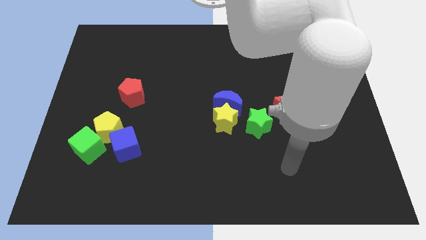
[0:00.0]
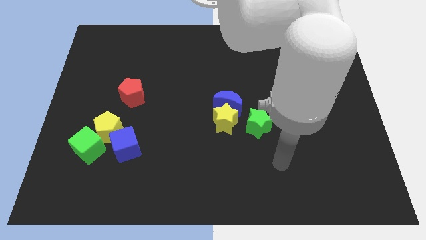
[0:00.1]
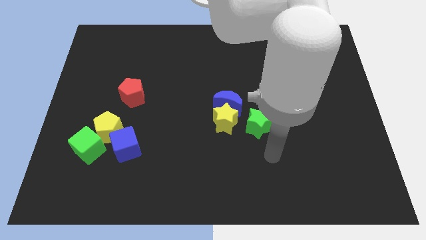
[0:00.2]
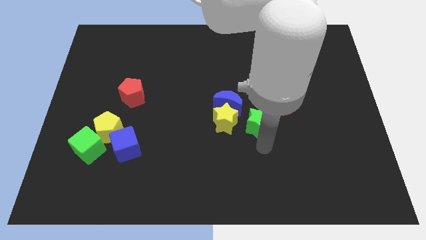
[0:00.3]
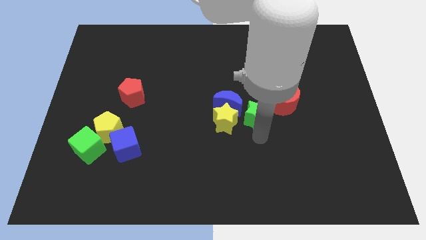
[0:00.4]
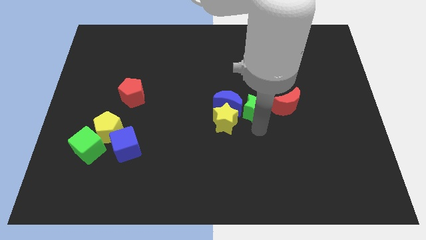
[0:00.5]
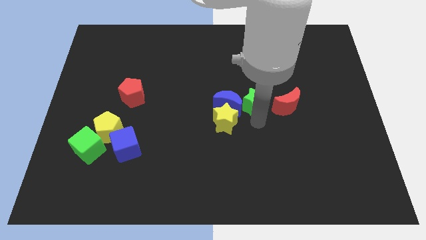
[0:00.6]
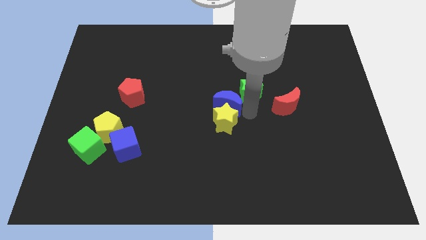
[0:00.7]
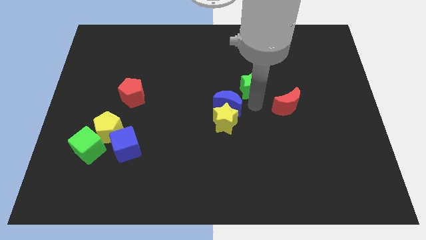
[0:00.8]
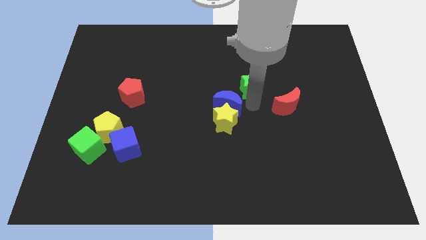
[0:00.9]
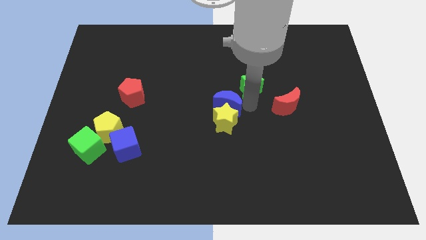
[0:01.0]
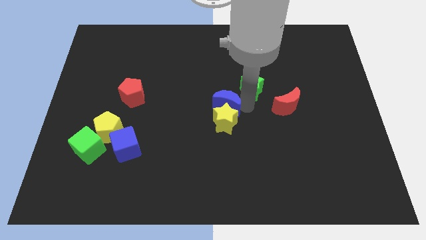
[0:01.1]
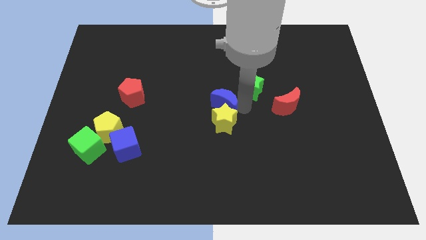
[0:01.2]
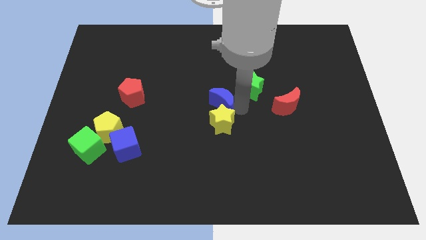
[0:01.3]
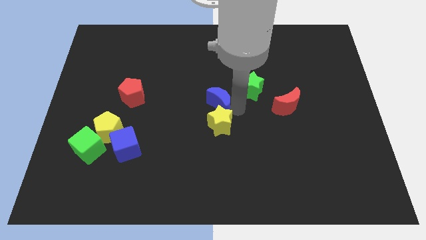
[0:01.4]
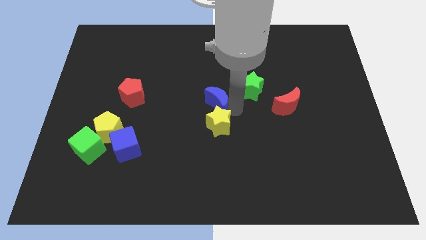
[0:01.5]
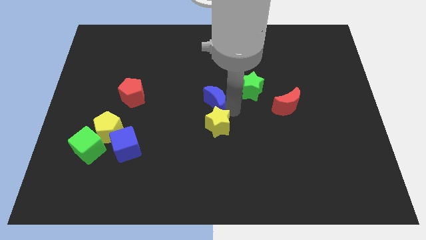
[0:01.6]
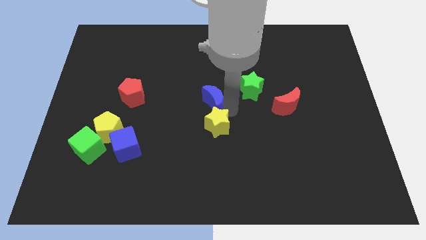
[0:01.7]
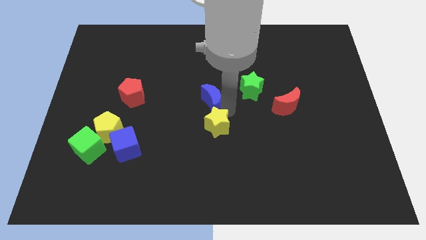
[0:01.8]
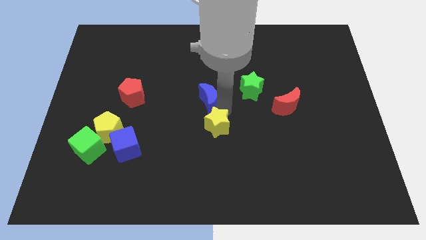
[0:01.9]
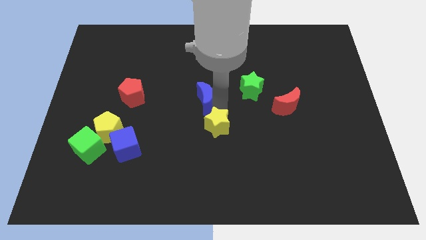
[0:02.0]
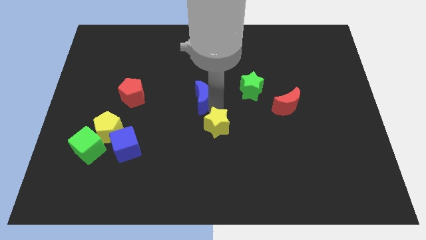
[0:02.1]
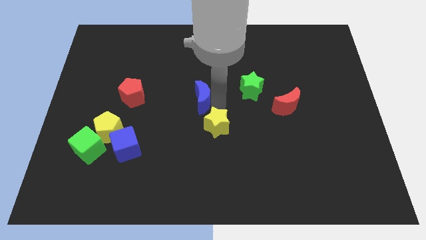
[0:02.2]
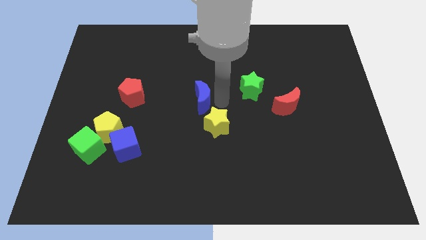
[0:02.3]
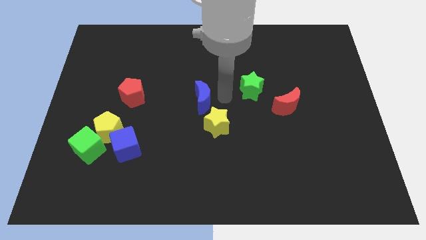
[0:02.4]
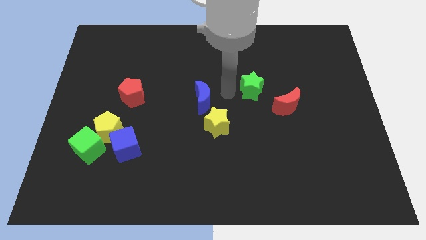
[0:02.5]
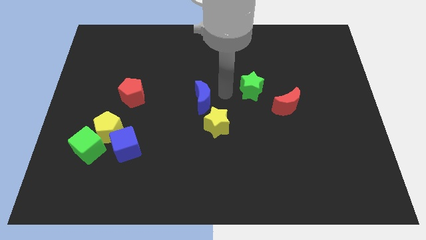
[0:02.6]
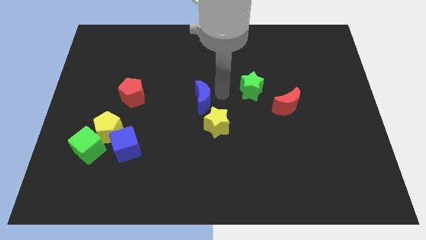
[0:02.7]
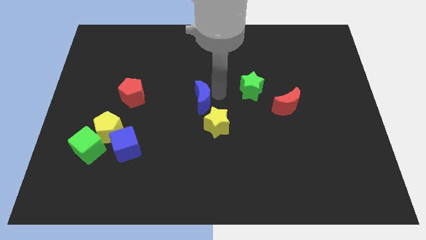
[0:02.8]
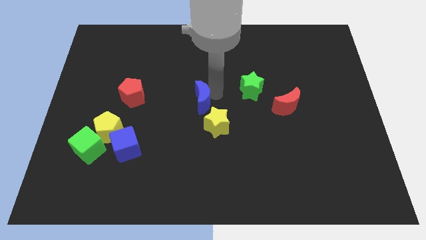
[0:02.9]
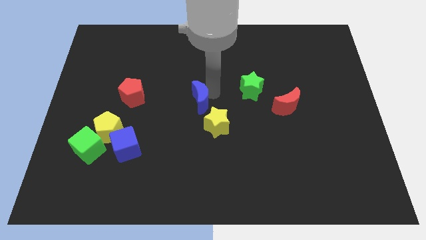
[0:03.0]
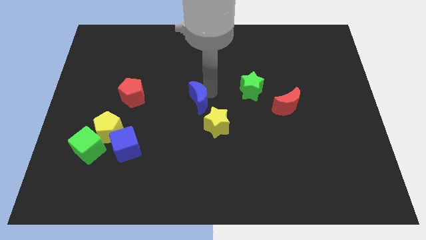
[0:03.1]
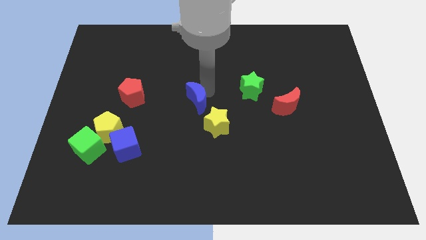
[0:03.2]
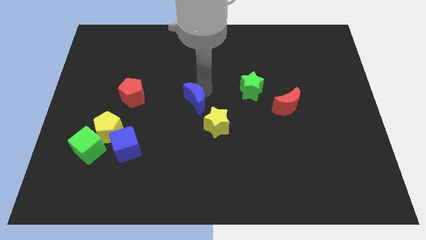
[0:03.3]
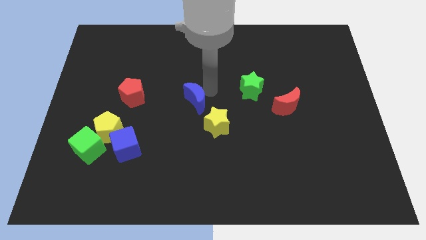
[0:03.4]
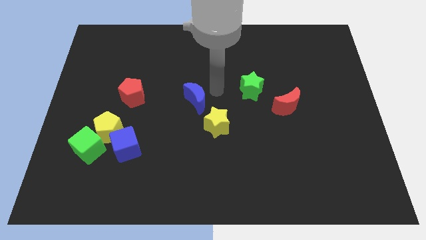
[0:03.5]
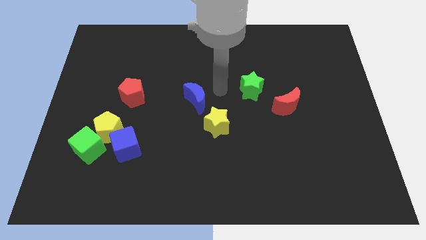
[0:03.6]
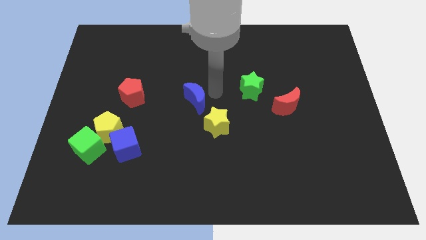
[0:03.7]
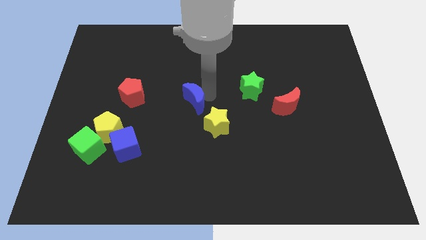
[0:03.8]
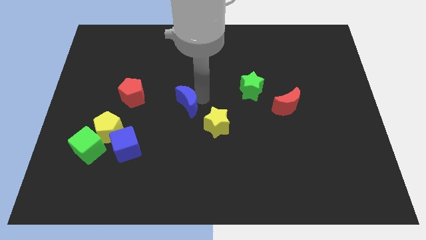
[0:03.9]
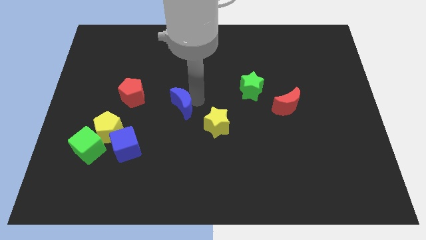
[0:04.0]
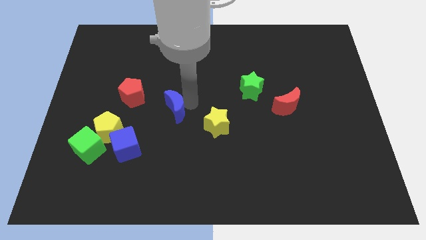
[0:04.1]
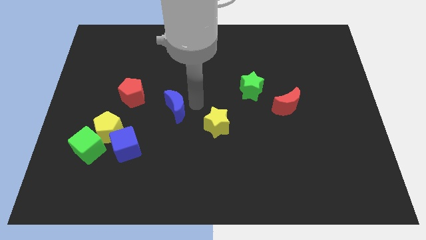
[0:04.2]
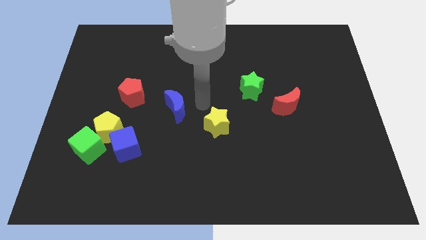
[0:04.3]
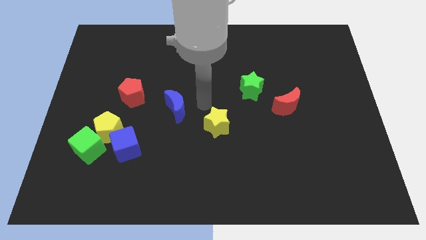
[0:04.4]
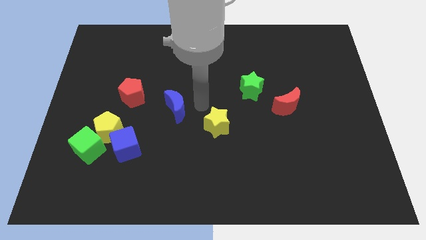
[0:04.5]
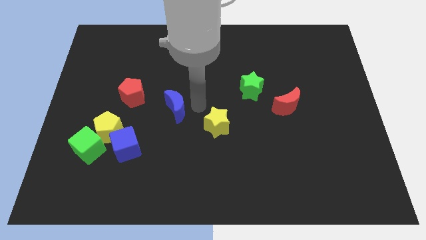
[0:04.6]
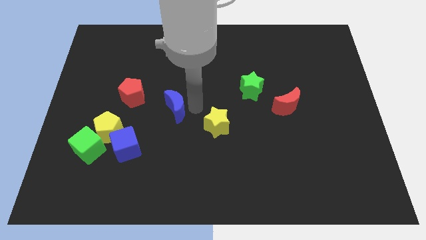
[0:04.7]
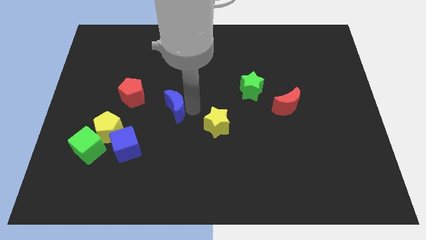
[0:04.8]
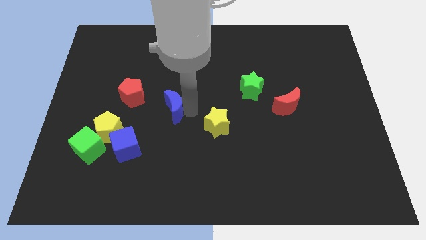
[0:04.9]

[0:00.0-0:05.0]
push the blue moon to the bottom right side of the red pentagon

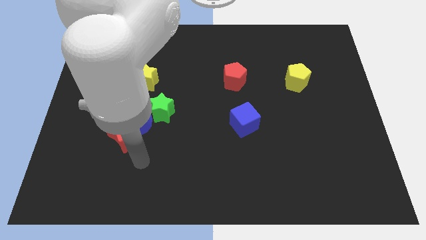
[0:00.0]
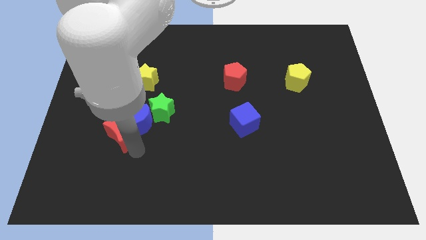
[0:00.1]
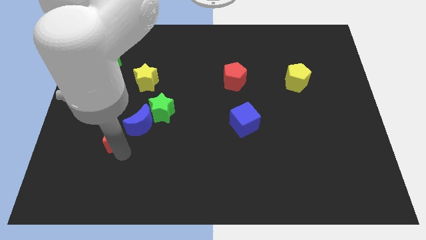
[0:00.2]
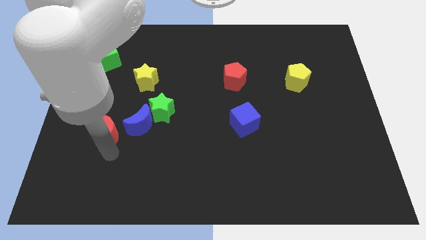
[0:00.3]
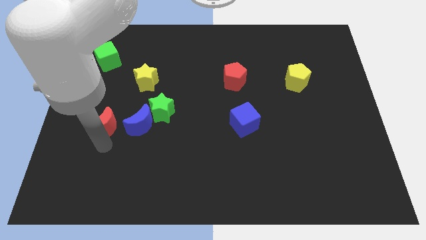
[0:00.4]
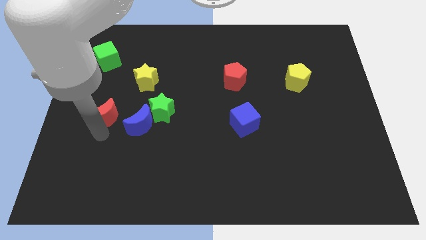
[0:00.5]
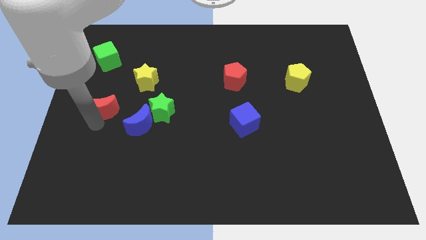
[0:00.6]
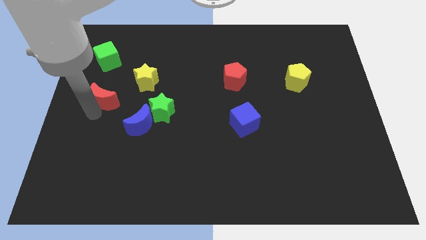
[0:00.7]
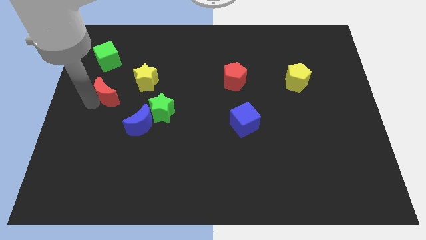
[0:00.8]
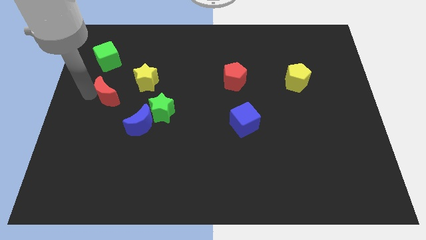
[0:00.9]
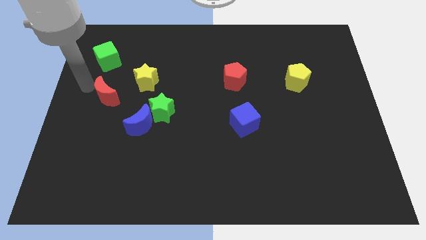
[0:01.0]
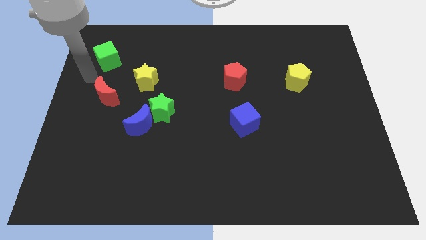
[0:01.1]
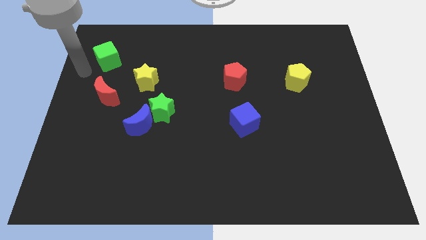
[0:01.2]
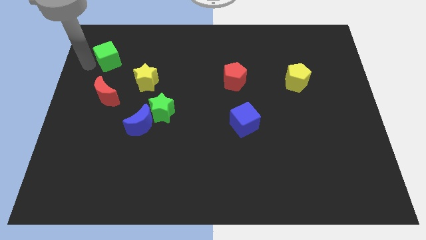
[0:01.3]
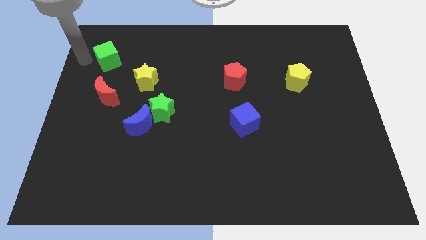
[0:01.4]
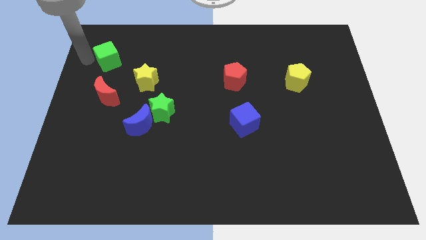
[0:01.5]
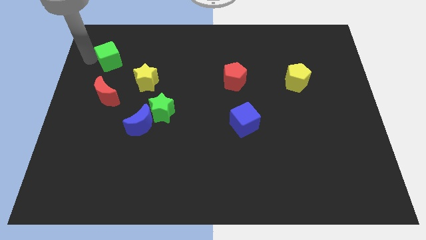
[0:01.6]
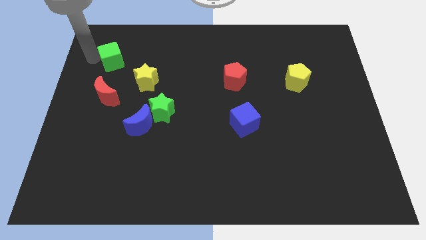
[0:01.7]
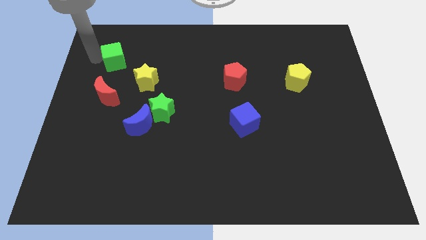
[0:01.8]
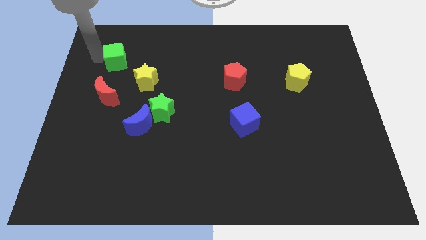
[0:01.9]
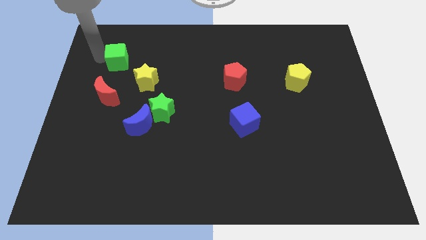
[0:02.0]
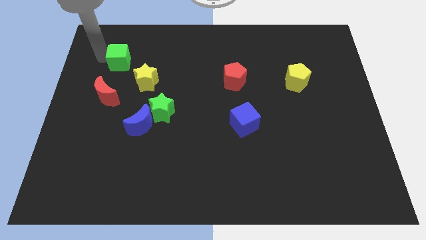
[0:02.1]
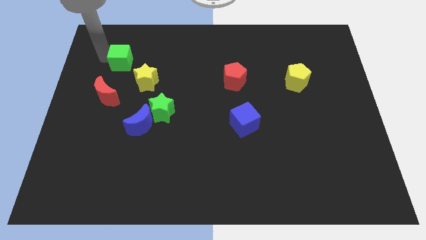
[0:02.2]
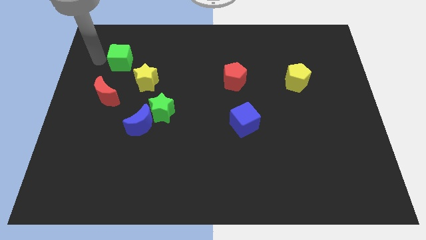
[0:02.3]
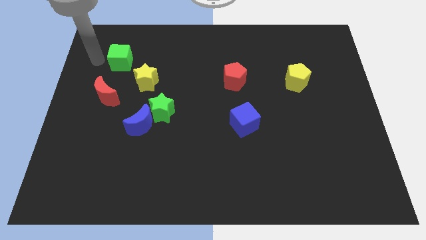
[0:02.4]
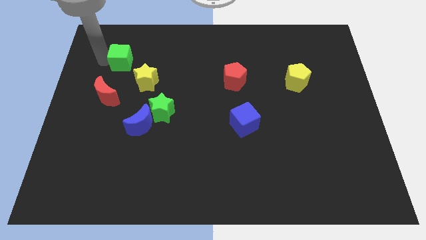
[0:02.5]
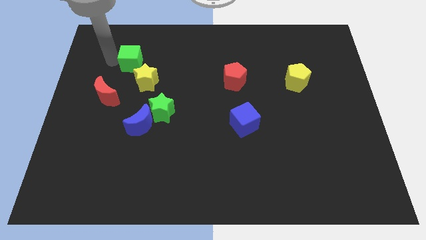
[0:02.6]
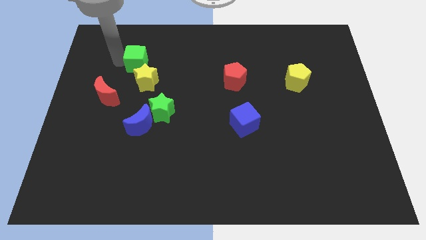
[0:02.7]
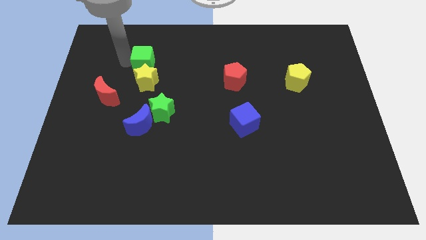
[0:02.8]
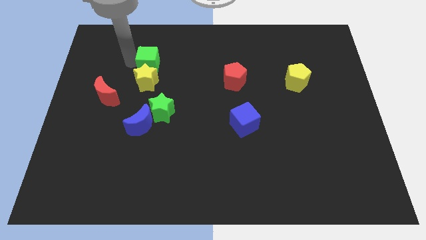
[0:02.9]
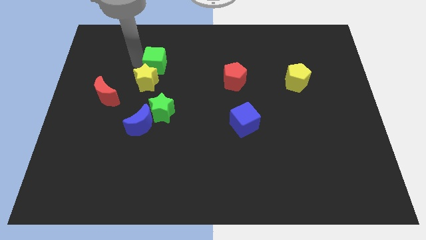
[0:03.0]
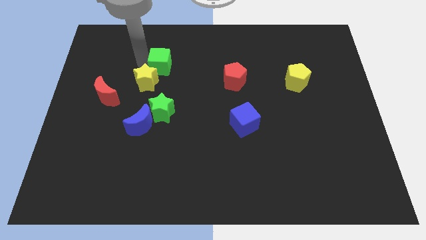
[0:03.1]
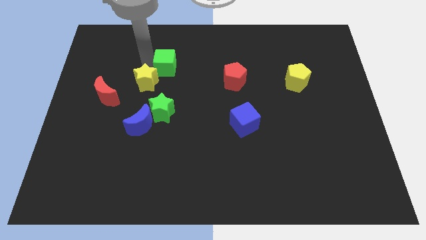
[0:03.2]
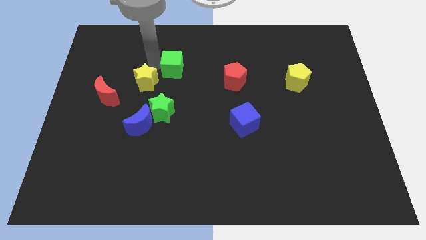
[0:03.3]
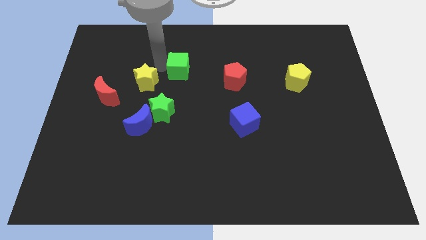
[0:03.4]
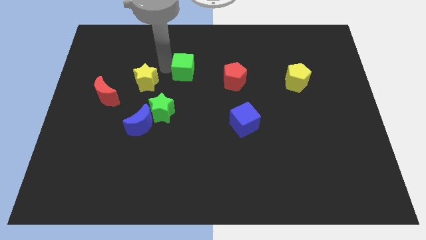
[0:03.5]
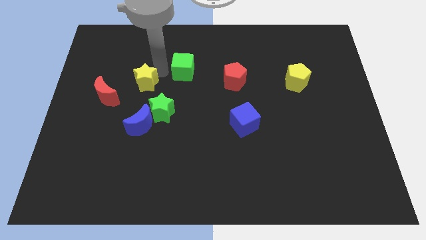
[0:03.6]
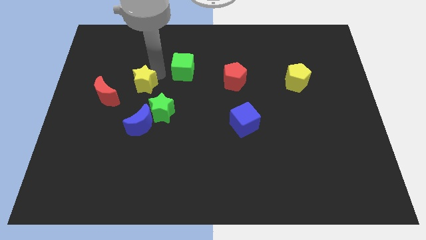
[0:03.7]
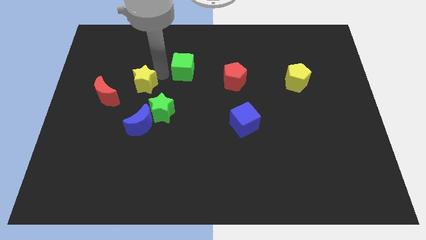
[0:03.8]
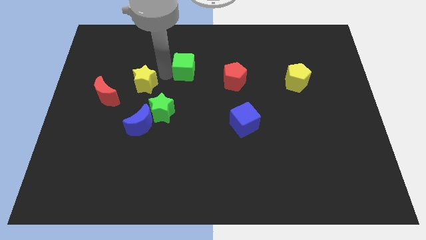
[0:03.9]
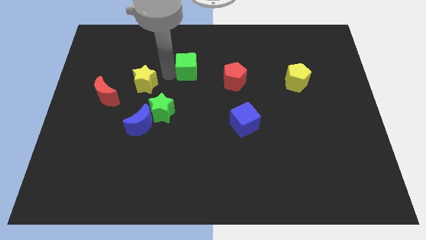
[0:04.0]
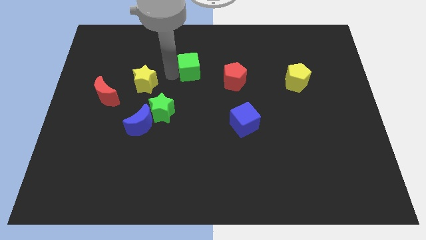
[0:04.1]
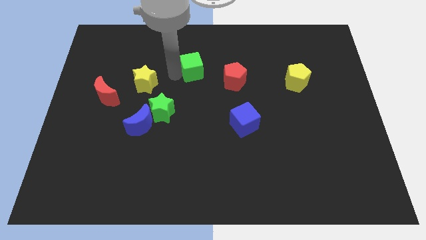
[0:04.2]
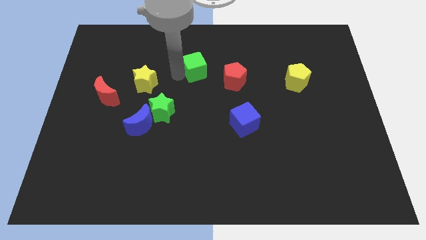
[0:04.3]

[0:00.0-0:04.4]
push the green cube to the top left side of the red pentagon
